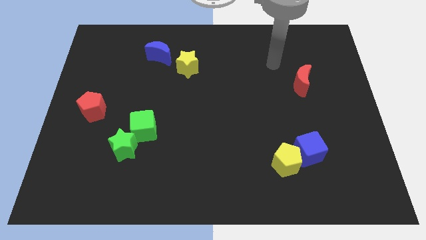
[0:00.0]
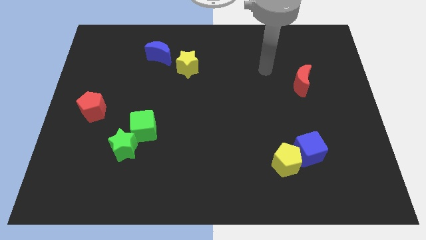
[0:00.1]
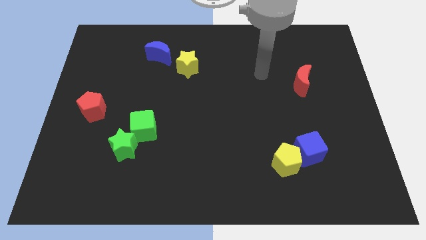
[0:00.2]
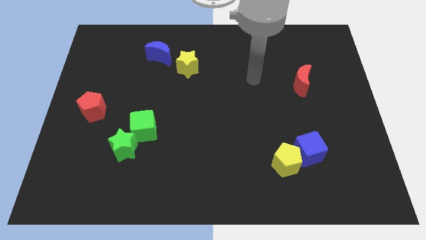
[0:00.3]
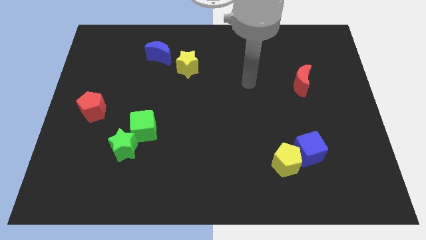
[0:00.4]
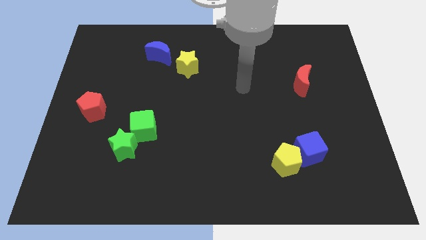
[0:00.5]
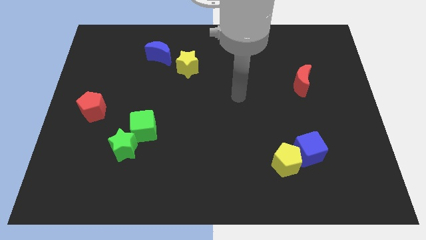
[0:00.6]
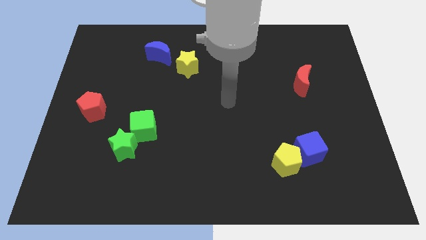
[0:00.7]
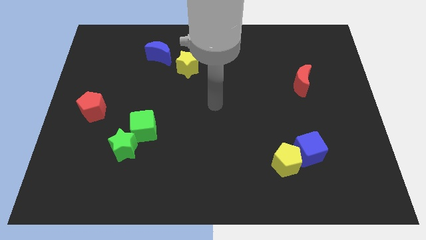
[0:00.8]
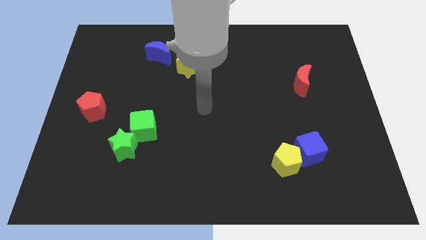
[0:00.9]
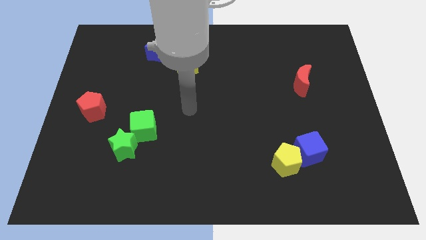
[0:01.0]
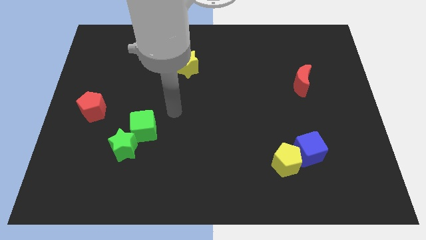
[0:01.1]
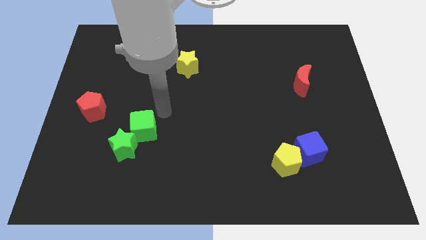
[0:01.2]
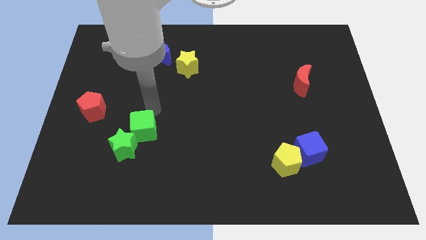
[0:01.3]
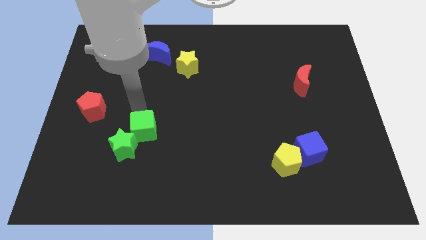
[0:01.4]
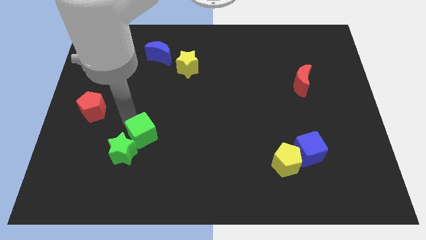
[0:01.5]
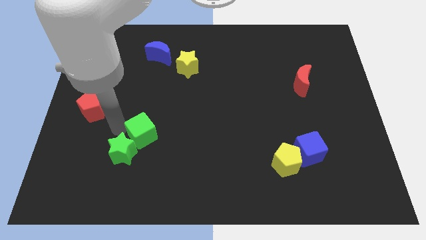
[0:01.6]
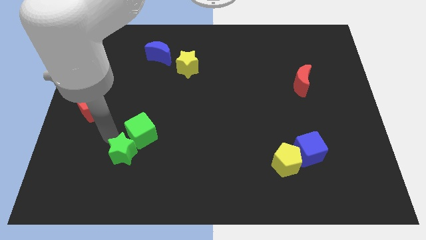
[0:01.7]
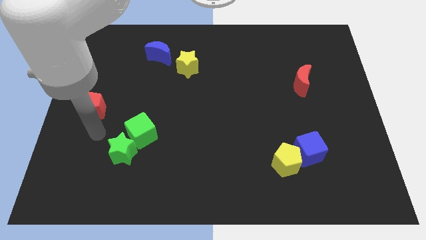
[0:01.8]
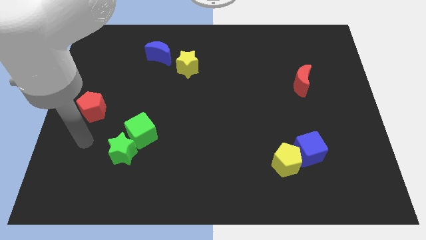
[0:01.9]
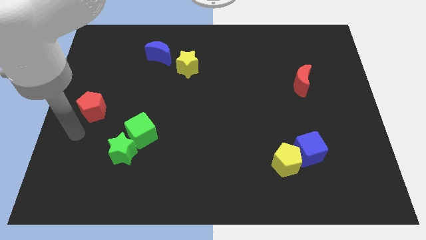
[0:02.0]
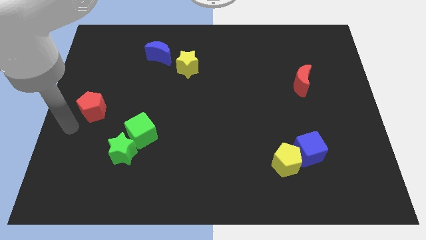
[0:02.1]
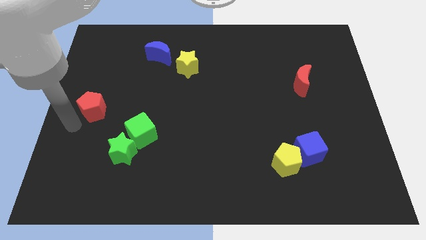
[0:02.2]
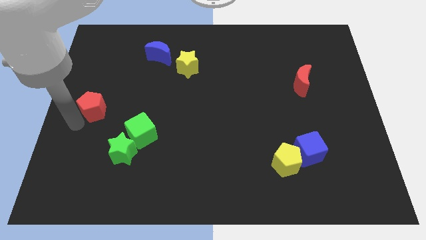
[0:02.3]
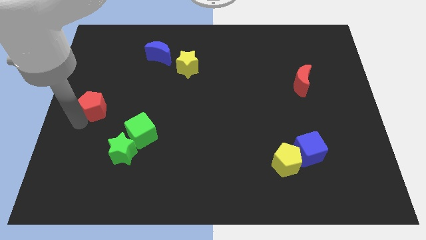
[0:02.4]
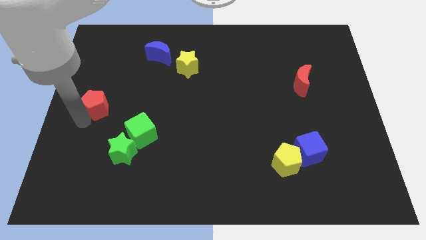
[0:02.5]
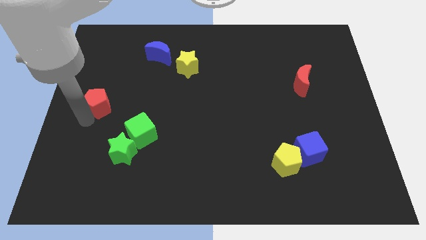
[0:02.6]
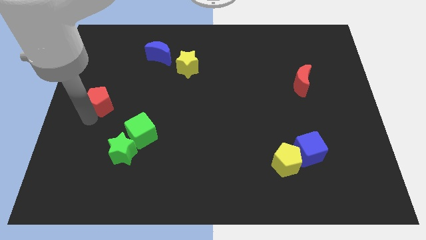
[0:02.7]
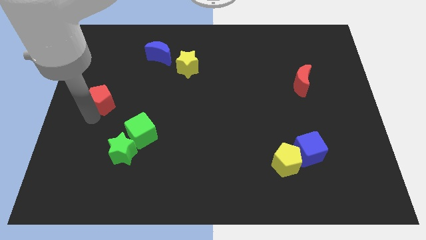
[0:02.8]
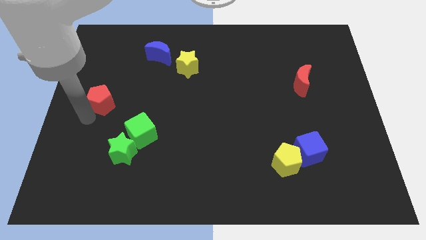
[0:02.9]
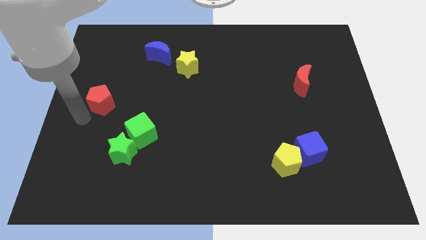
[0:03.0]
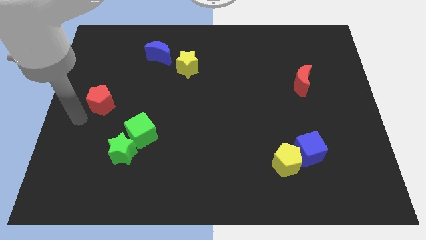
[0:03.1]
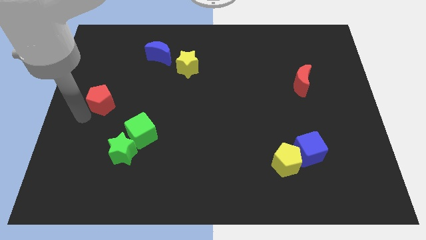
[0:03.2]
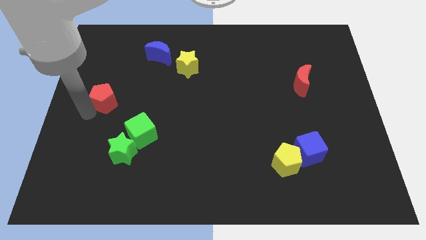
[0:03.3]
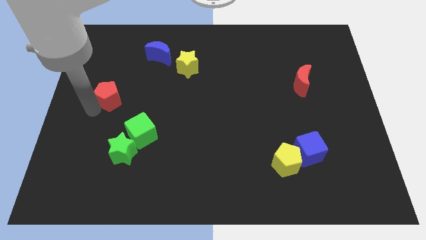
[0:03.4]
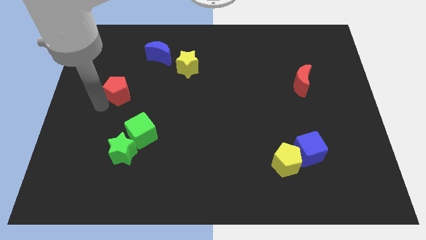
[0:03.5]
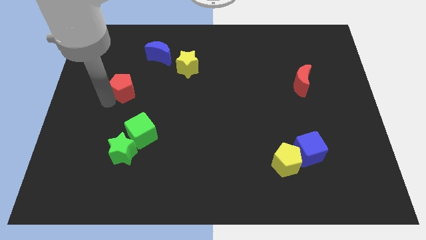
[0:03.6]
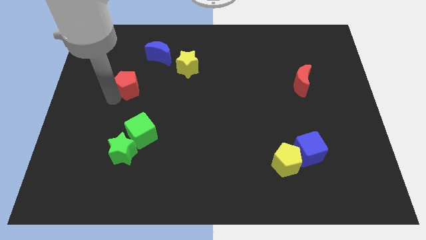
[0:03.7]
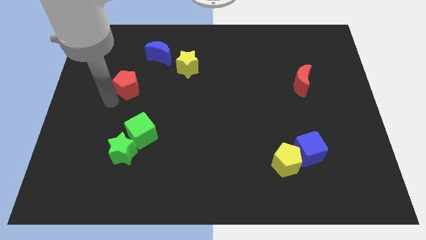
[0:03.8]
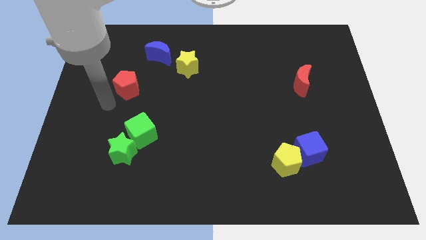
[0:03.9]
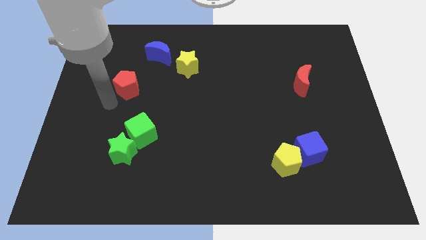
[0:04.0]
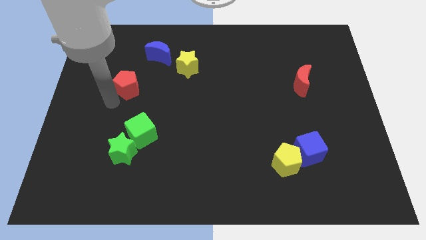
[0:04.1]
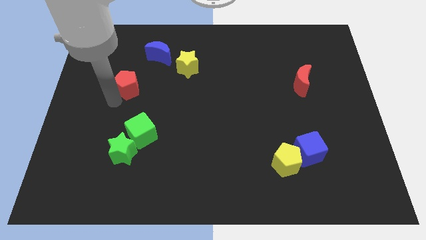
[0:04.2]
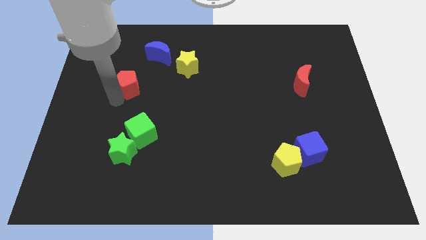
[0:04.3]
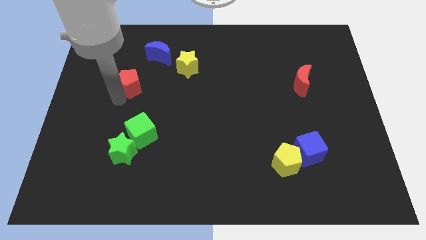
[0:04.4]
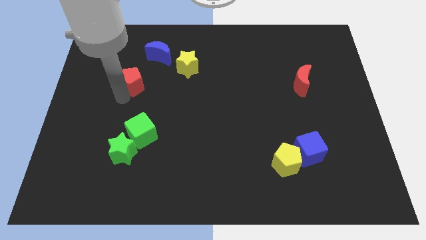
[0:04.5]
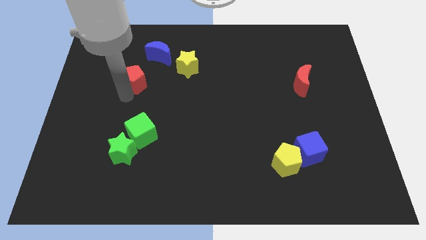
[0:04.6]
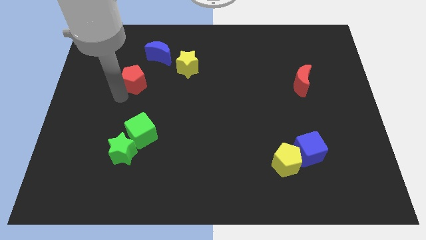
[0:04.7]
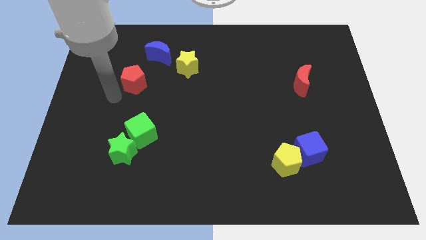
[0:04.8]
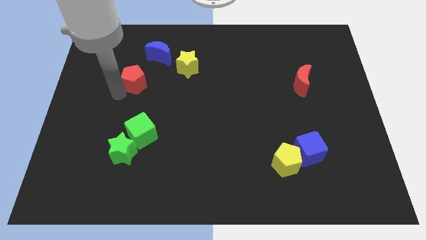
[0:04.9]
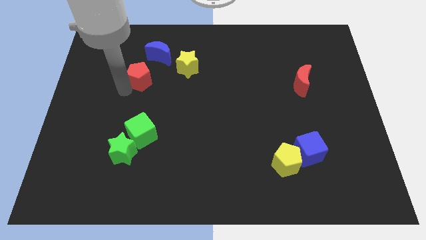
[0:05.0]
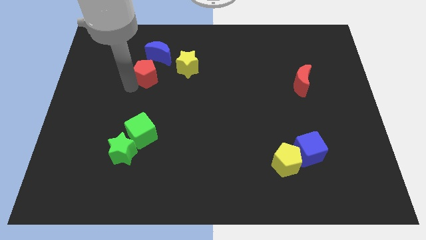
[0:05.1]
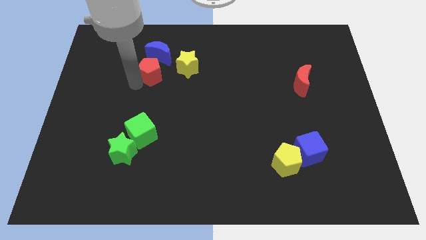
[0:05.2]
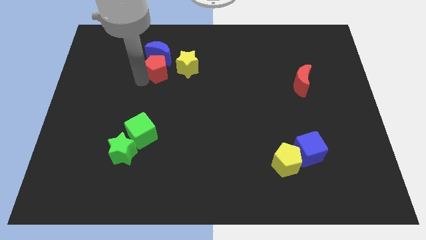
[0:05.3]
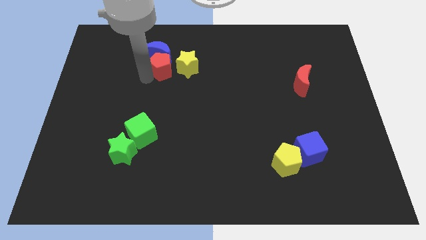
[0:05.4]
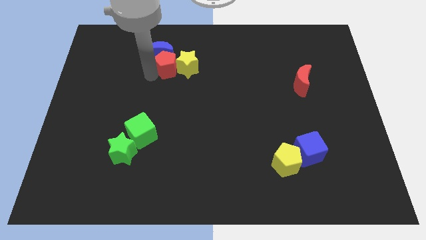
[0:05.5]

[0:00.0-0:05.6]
move the red pentagon towards the yellow star

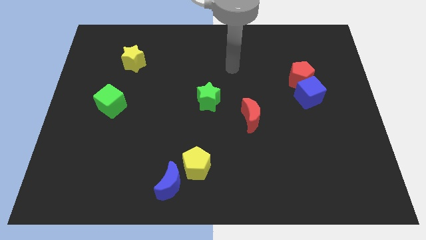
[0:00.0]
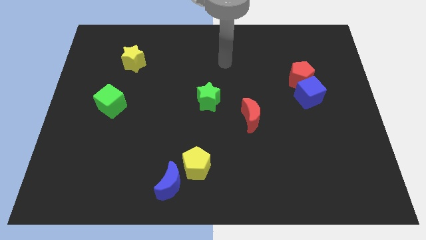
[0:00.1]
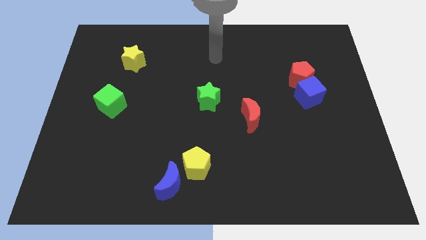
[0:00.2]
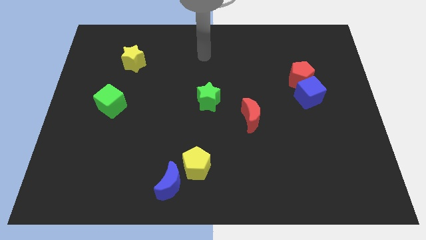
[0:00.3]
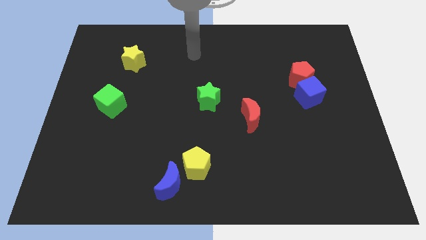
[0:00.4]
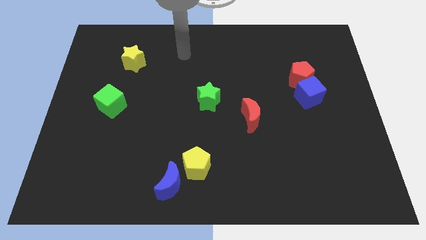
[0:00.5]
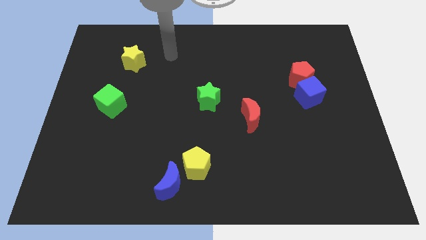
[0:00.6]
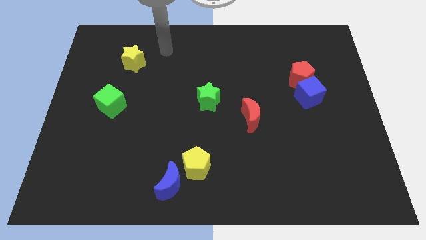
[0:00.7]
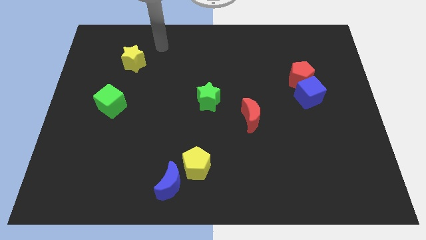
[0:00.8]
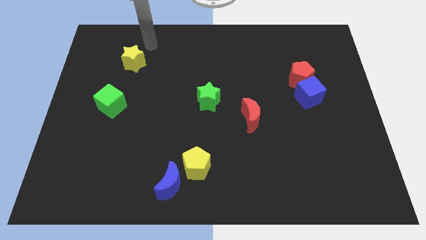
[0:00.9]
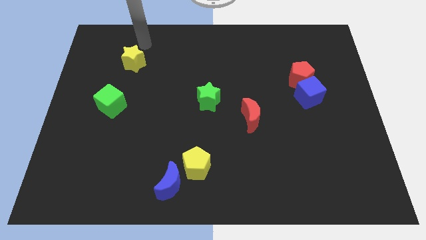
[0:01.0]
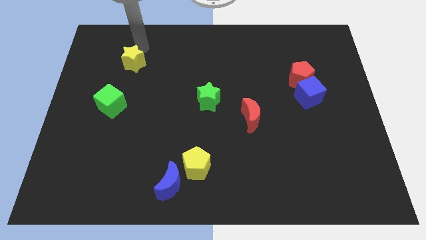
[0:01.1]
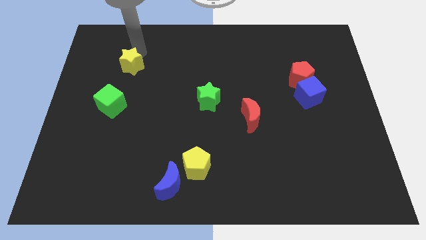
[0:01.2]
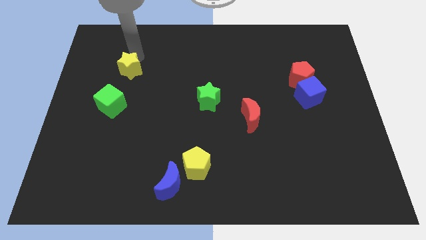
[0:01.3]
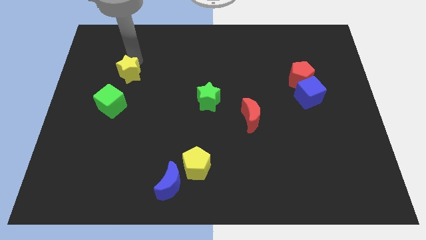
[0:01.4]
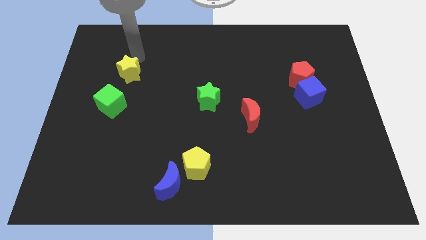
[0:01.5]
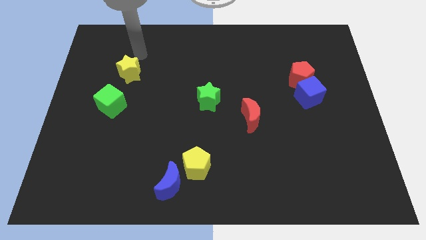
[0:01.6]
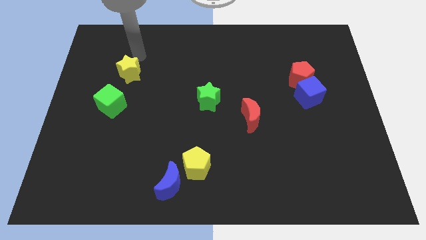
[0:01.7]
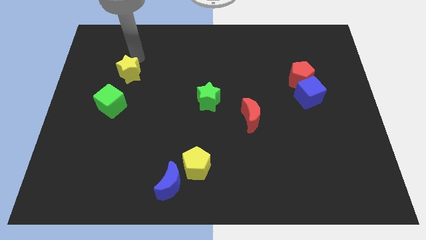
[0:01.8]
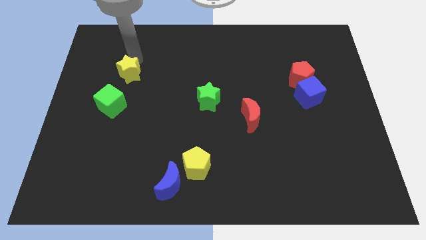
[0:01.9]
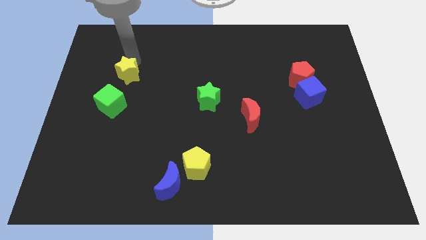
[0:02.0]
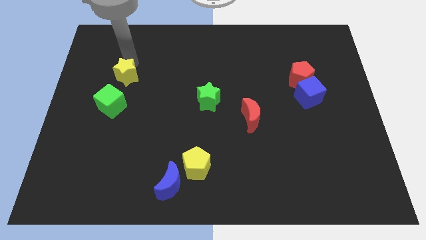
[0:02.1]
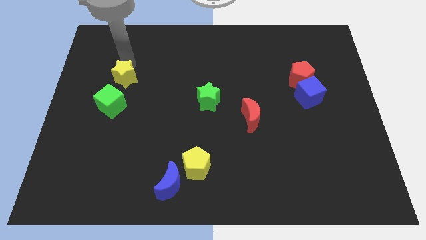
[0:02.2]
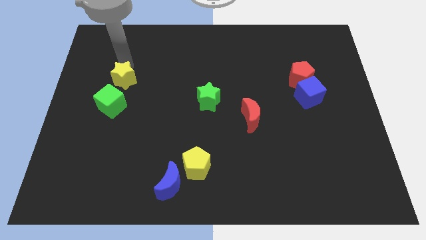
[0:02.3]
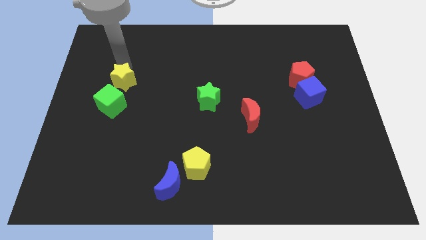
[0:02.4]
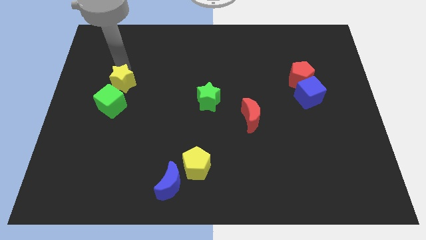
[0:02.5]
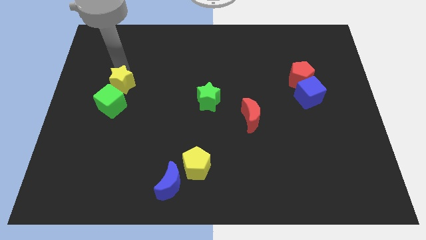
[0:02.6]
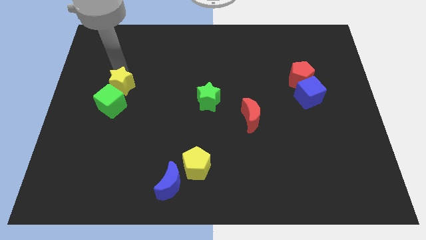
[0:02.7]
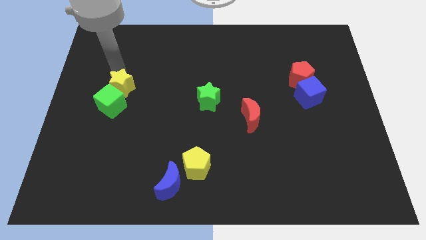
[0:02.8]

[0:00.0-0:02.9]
slide the yellow star close to the green cube

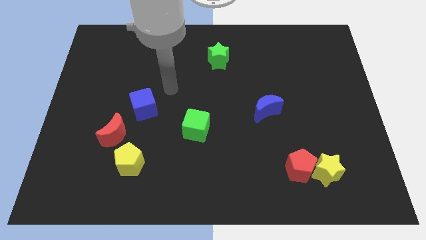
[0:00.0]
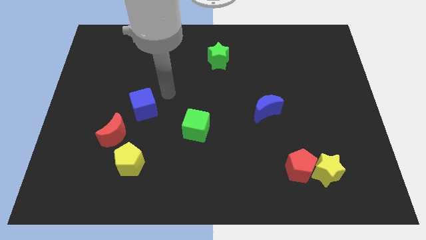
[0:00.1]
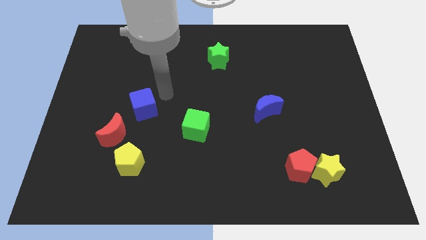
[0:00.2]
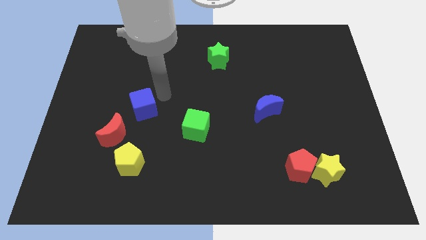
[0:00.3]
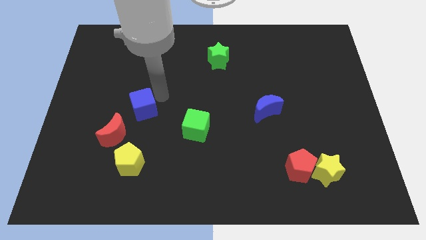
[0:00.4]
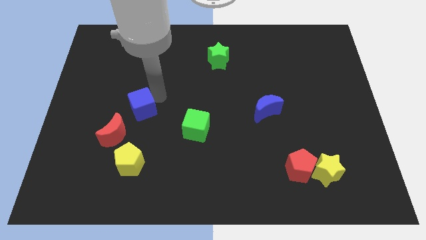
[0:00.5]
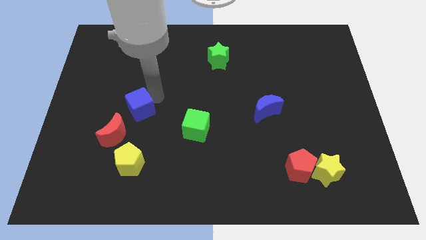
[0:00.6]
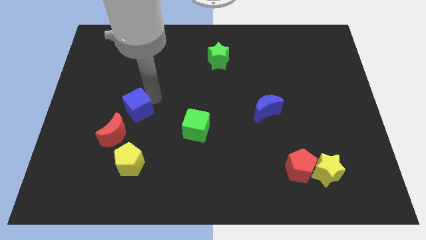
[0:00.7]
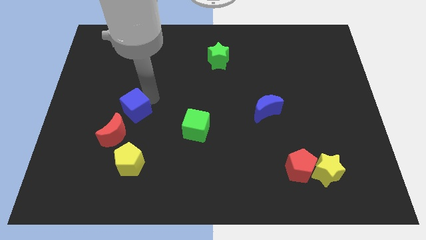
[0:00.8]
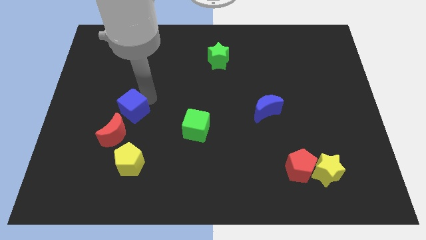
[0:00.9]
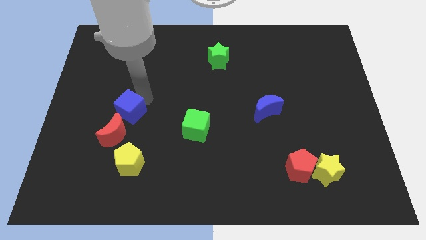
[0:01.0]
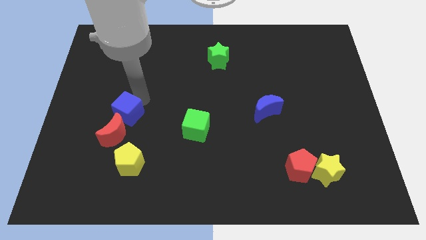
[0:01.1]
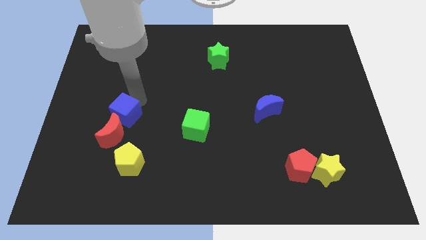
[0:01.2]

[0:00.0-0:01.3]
put the blue cube close to the red moon
